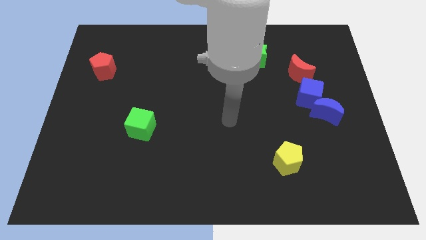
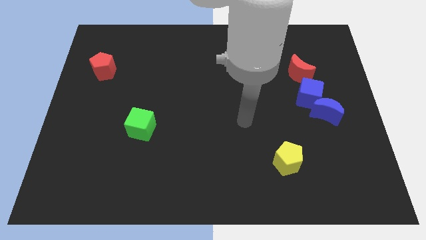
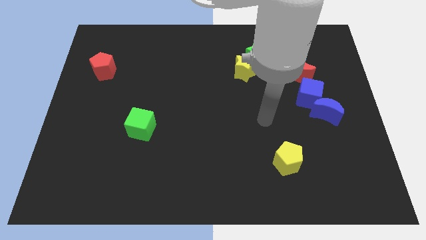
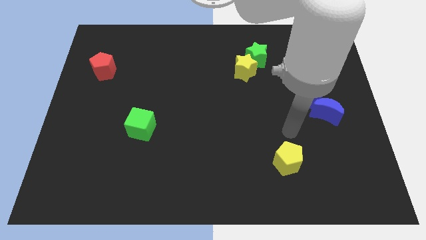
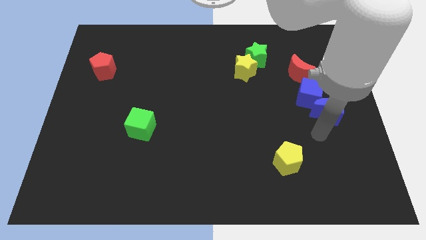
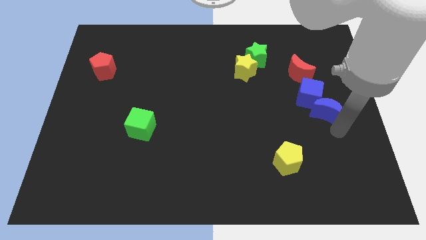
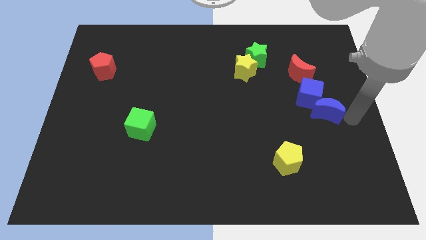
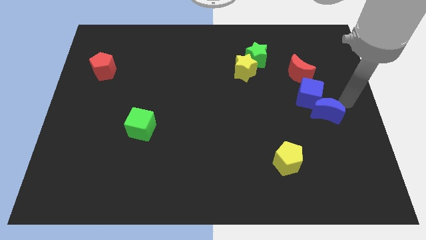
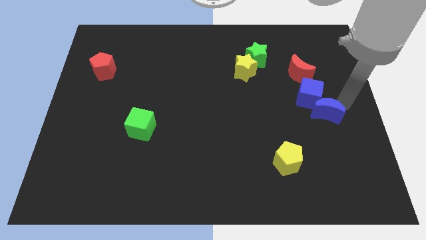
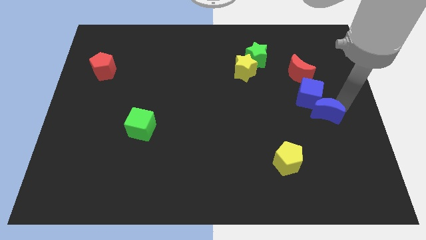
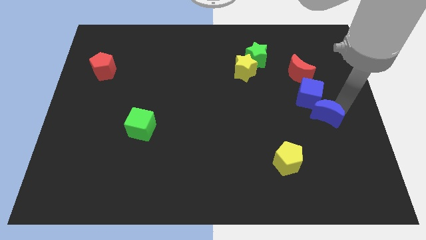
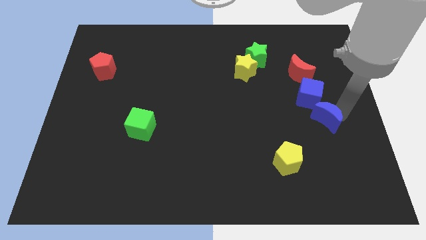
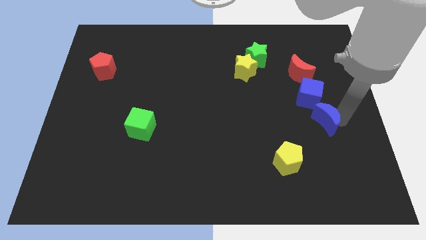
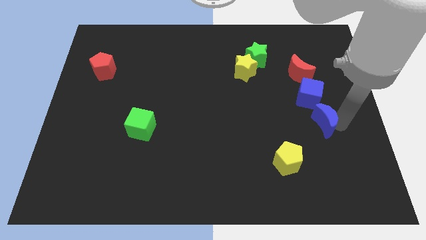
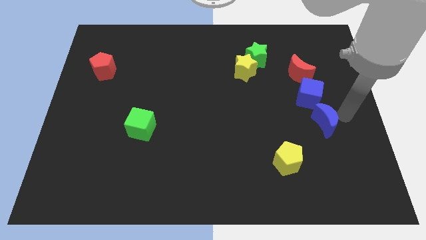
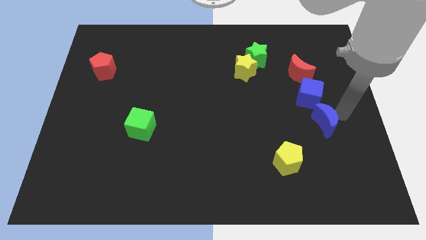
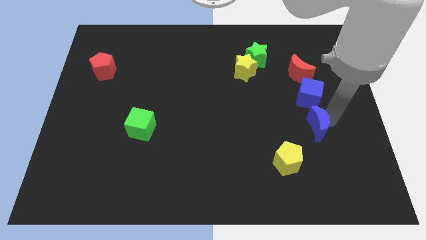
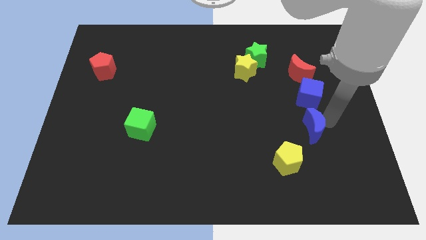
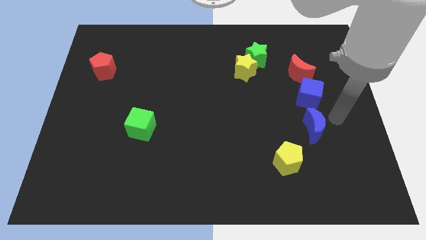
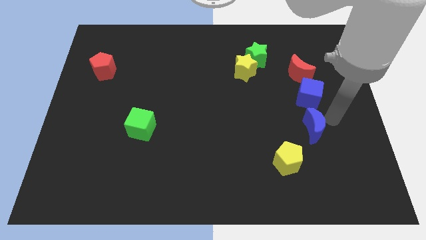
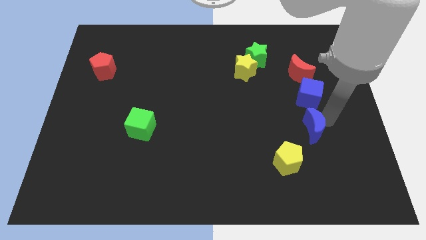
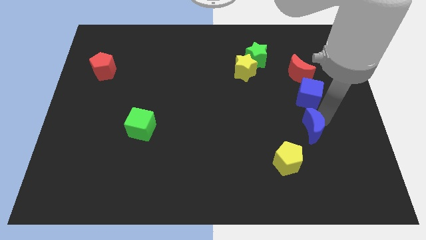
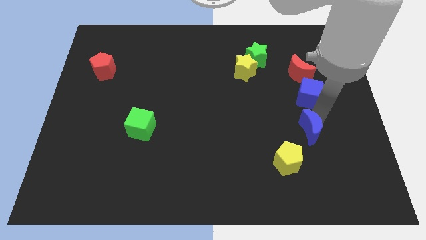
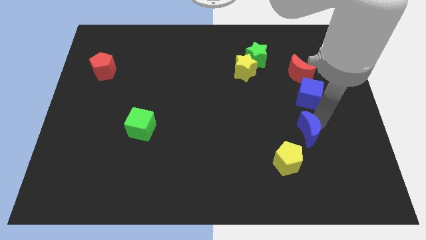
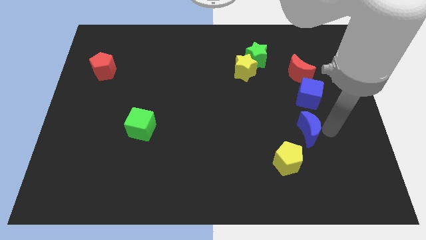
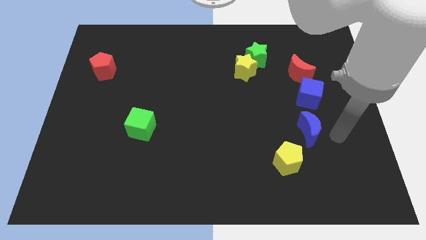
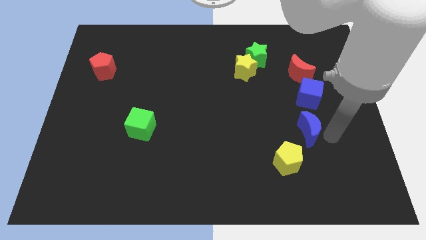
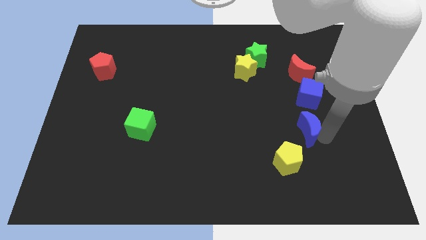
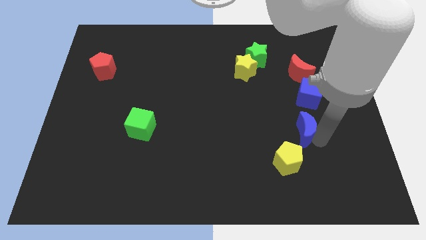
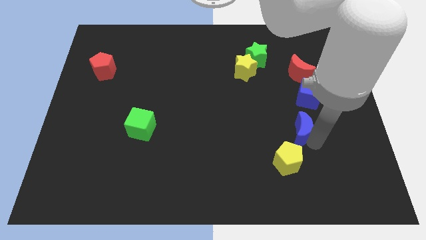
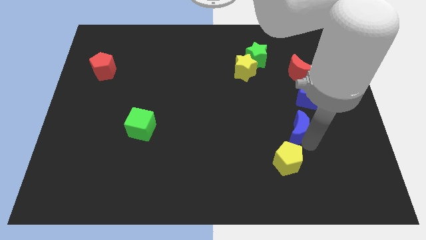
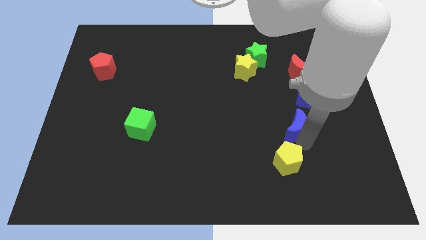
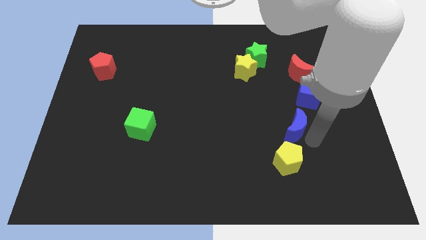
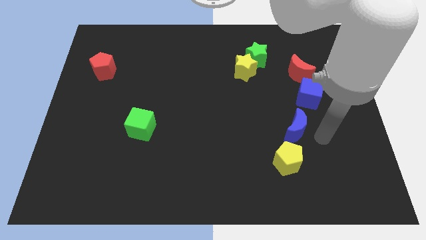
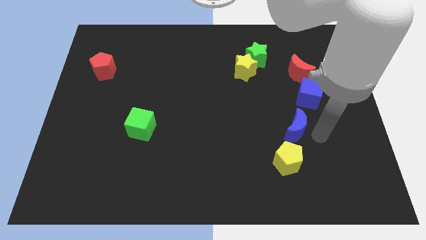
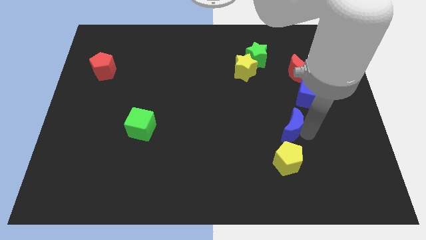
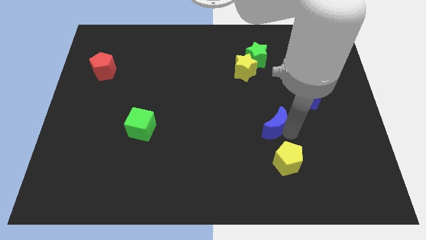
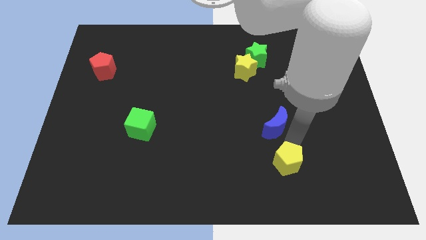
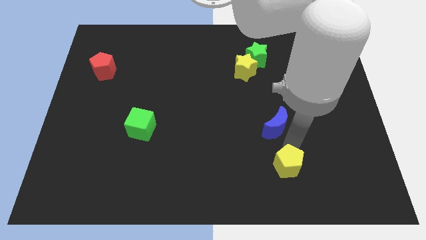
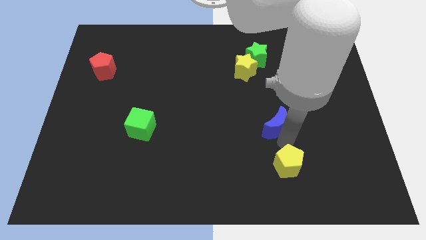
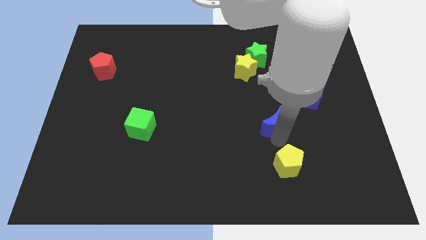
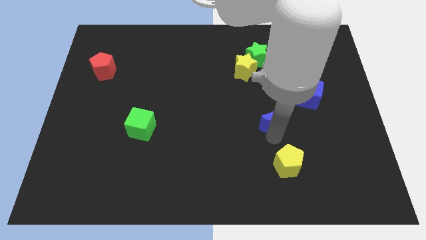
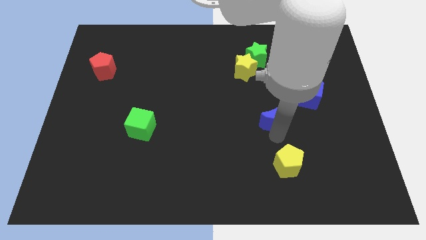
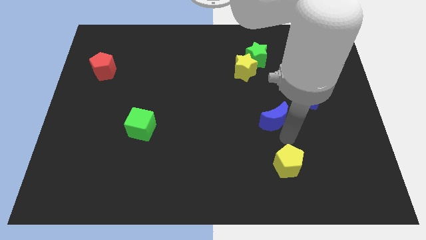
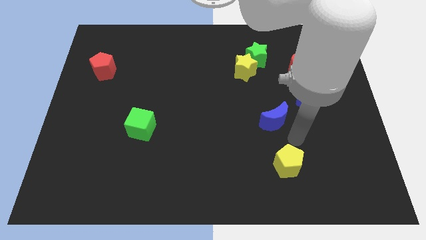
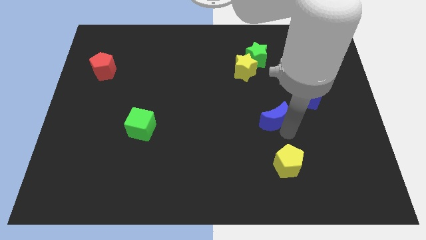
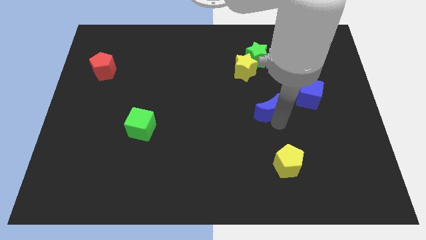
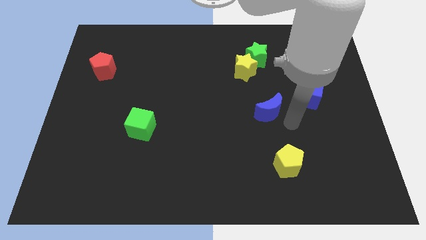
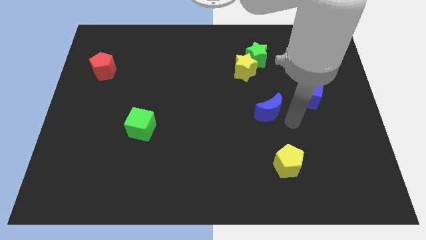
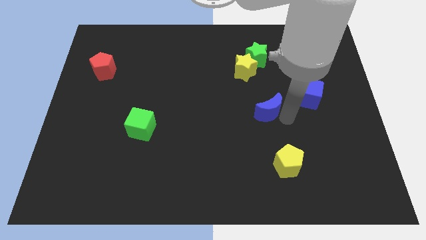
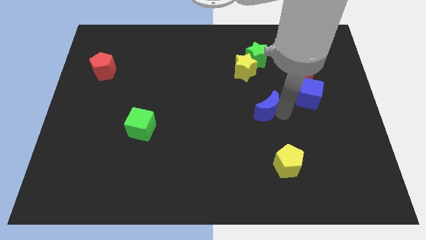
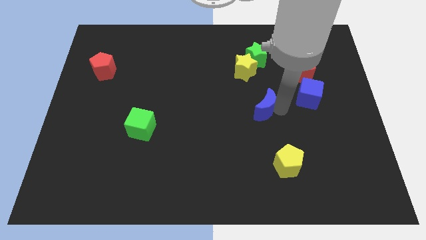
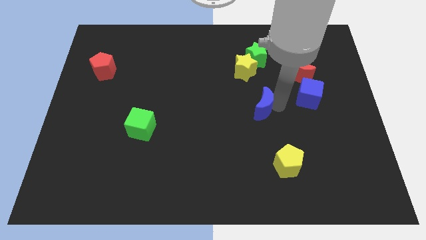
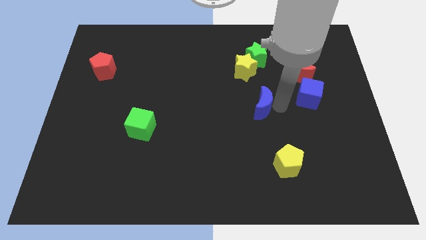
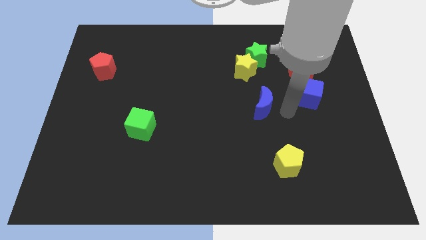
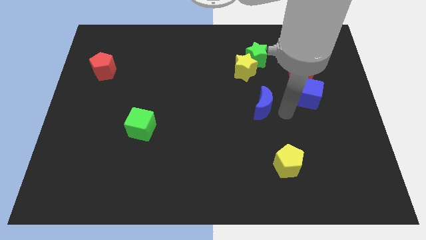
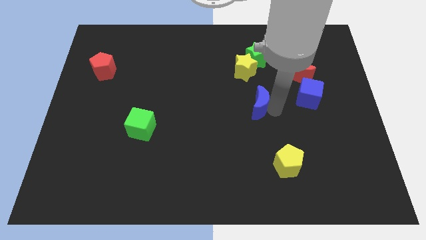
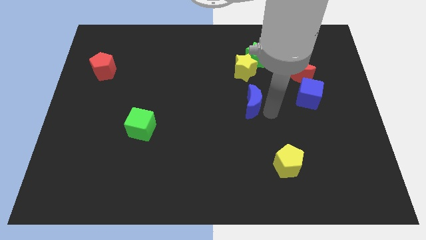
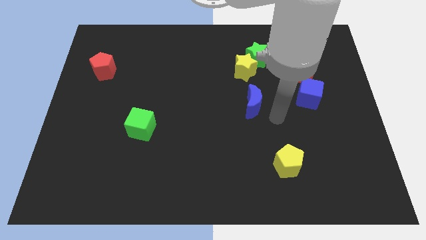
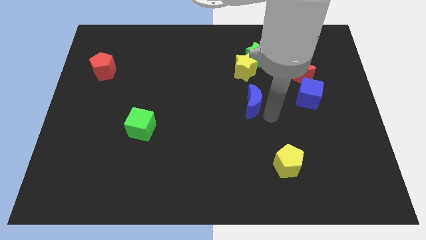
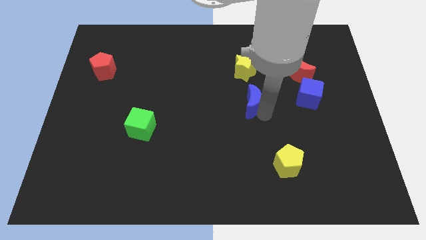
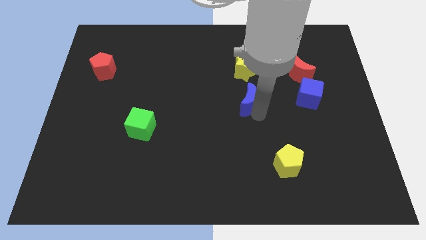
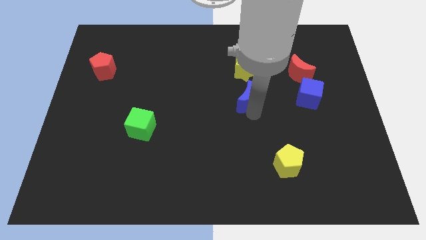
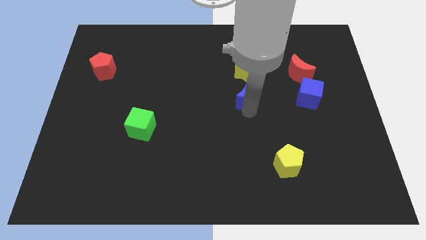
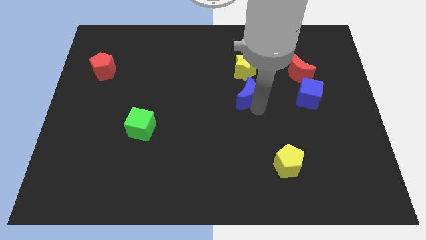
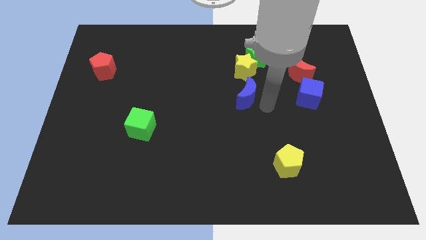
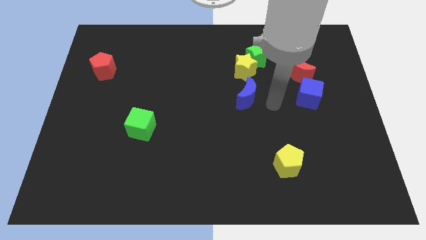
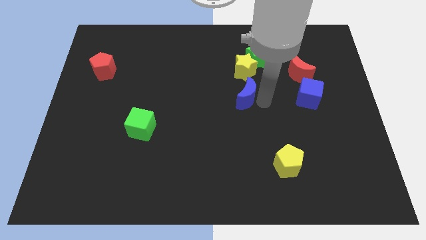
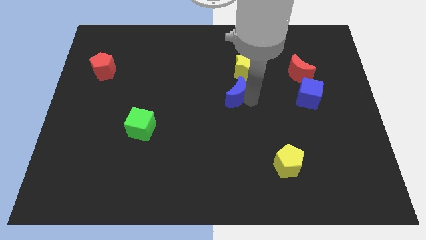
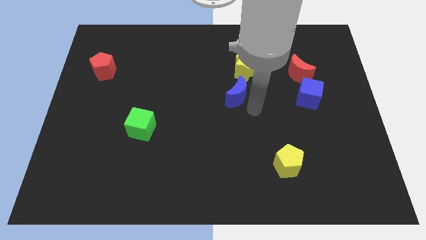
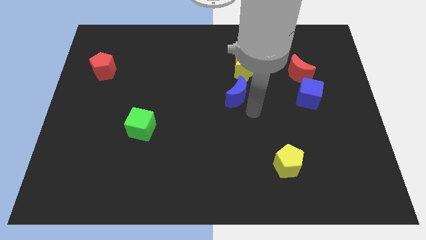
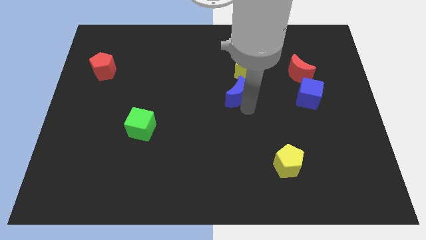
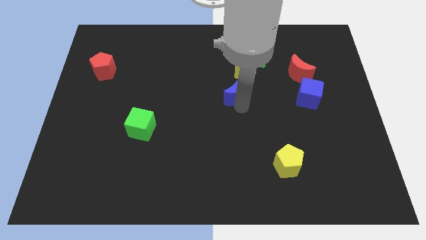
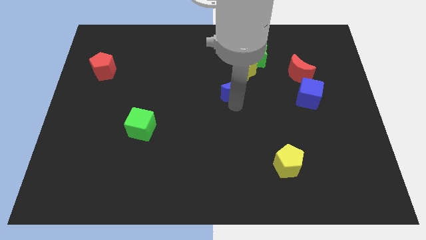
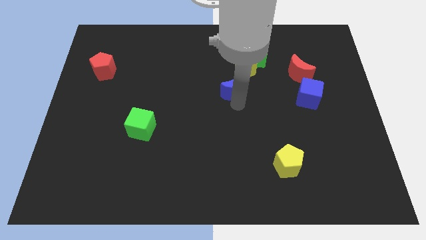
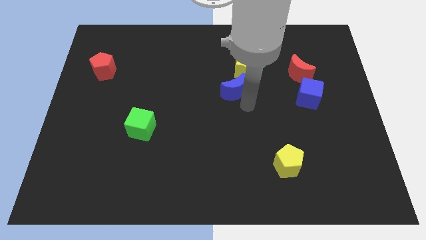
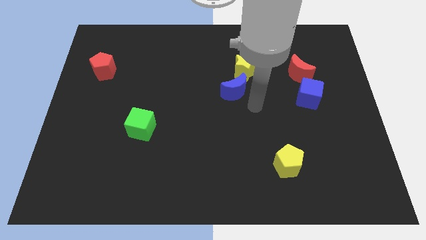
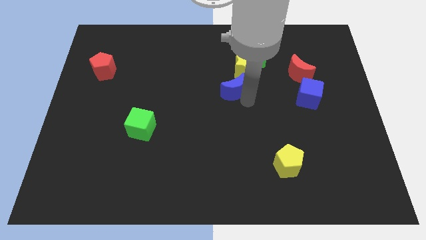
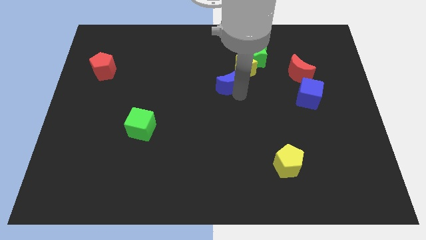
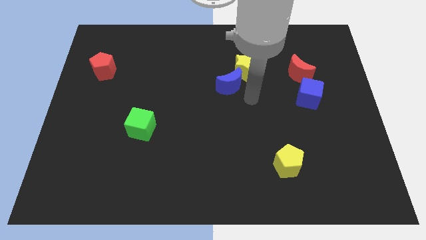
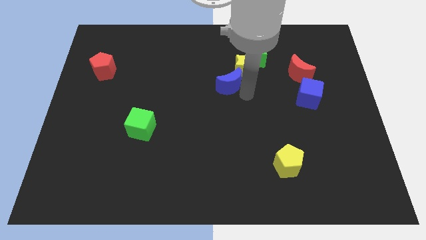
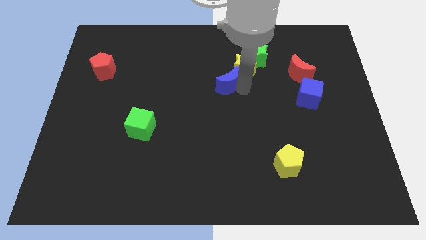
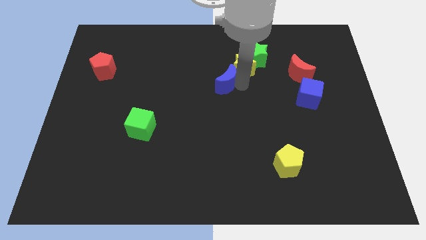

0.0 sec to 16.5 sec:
put the blue moon left of the yellow star
